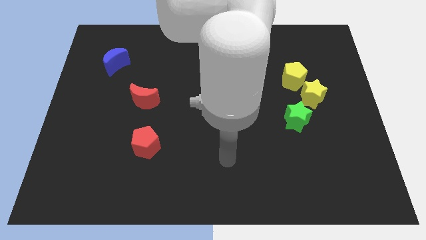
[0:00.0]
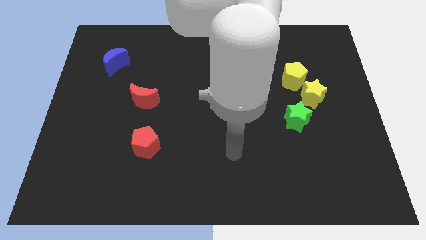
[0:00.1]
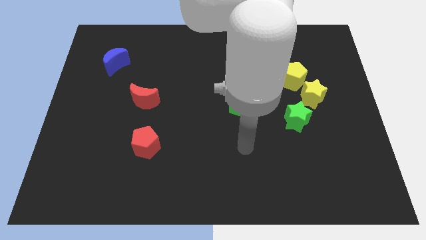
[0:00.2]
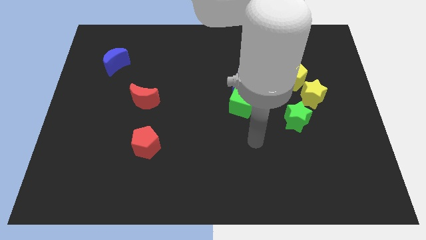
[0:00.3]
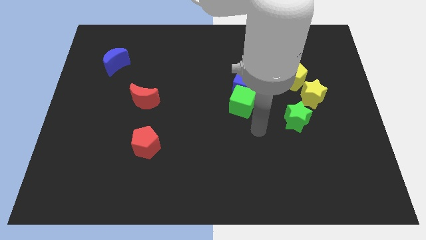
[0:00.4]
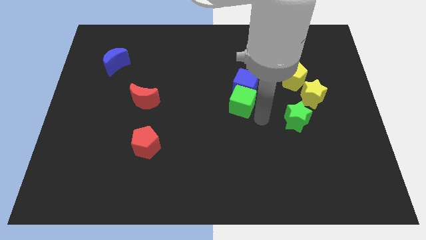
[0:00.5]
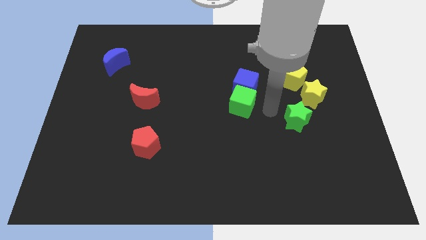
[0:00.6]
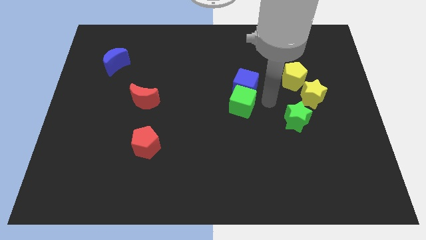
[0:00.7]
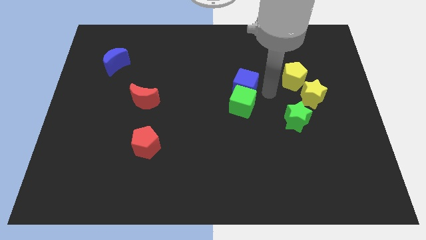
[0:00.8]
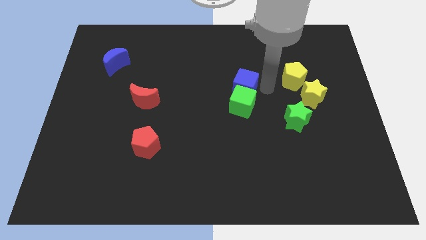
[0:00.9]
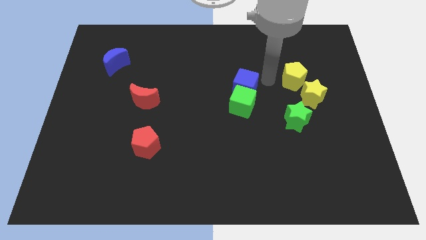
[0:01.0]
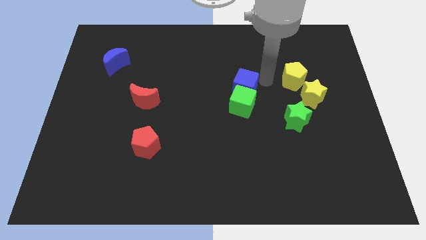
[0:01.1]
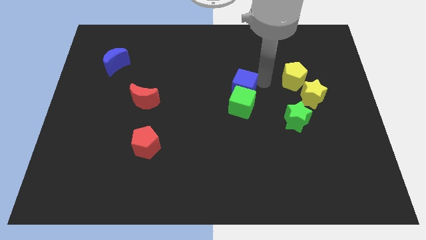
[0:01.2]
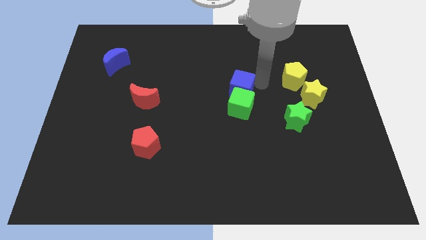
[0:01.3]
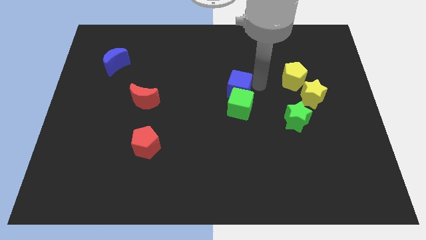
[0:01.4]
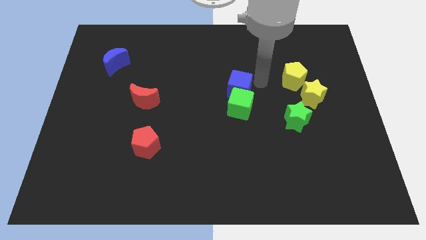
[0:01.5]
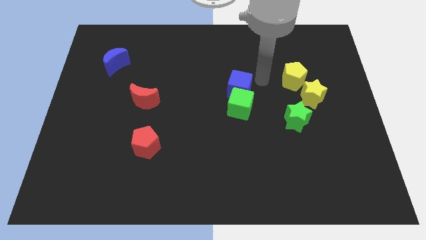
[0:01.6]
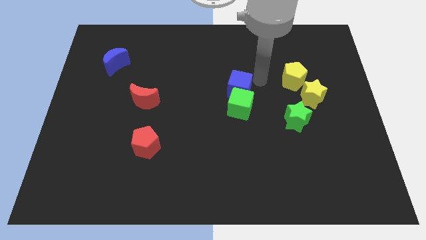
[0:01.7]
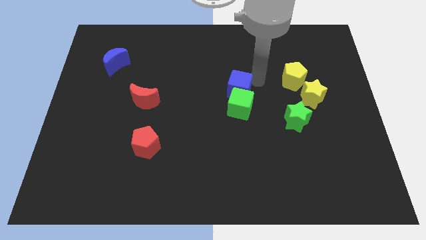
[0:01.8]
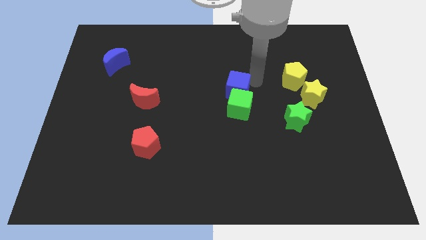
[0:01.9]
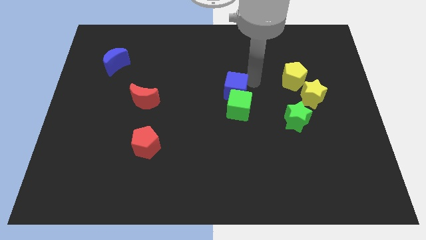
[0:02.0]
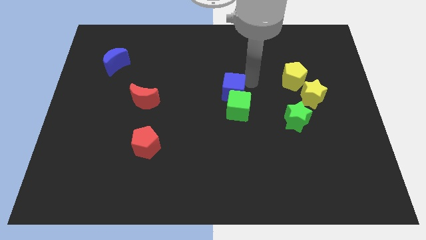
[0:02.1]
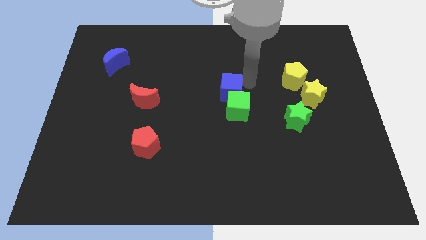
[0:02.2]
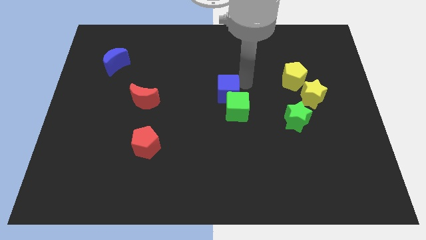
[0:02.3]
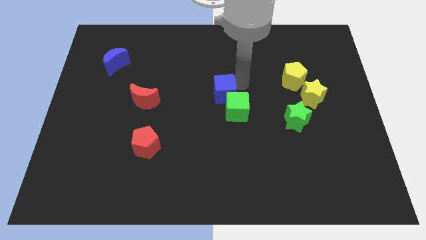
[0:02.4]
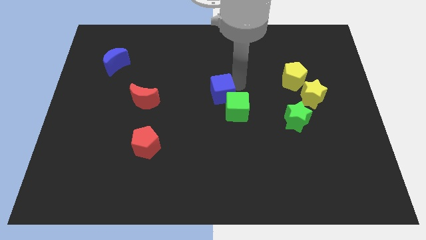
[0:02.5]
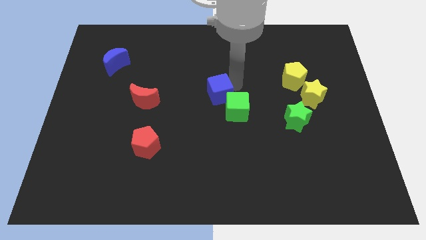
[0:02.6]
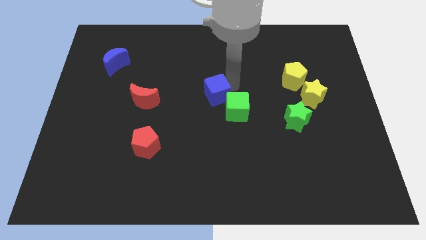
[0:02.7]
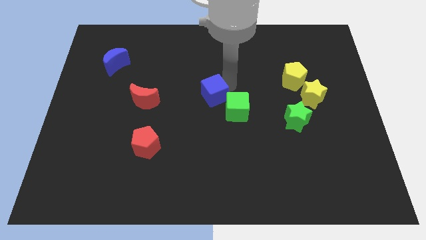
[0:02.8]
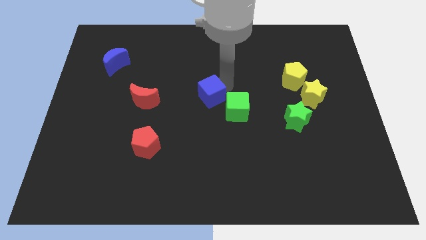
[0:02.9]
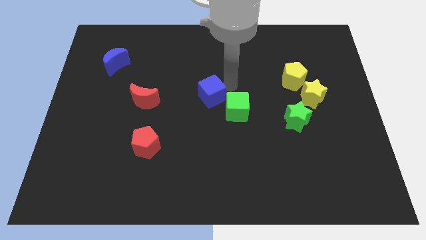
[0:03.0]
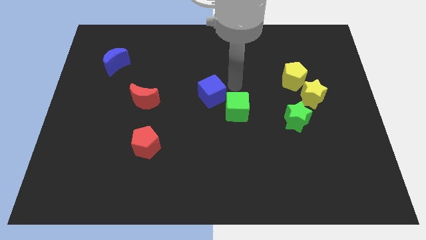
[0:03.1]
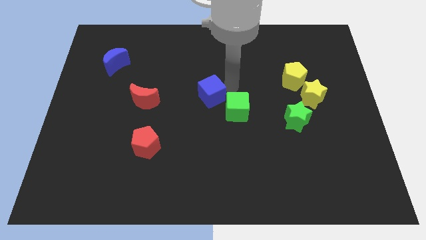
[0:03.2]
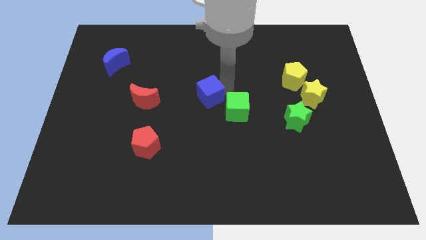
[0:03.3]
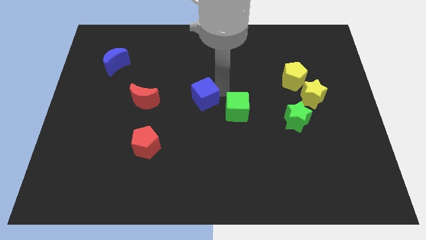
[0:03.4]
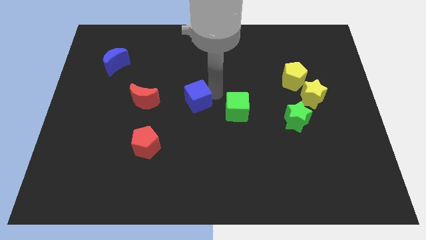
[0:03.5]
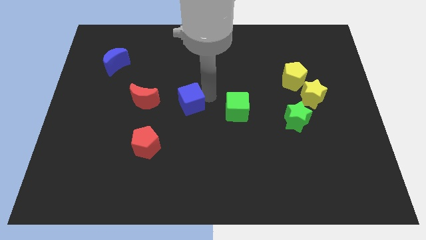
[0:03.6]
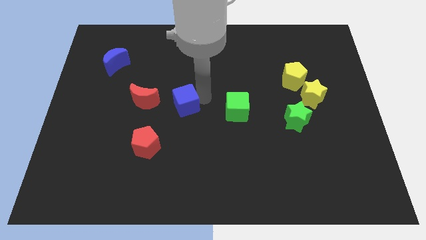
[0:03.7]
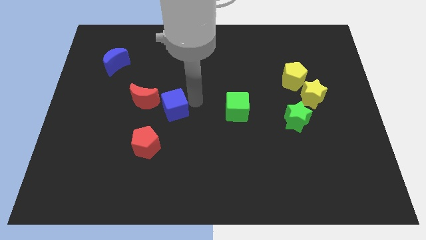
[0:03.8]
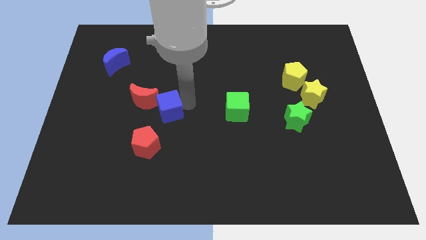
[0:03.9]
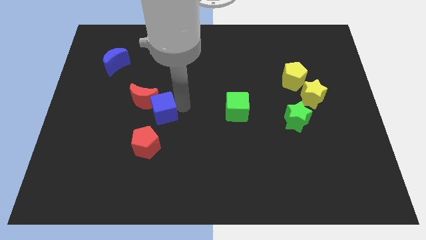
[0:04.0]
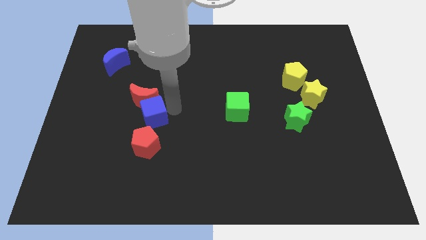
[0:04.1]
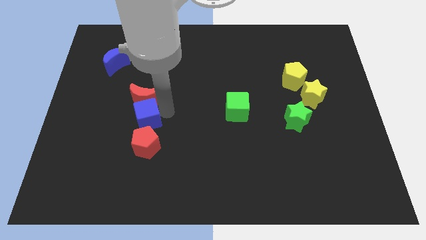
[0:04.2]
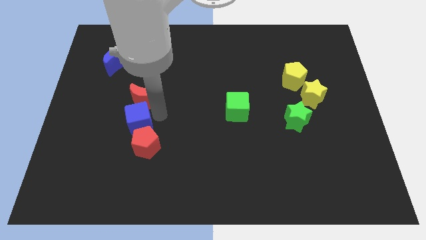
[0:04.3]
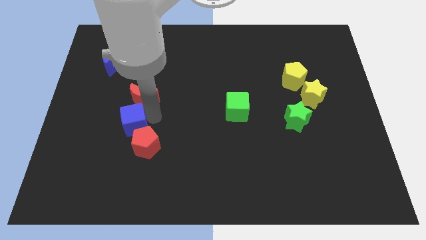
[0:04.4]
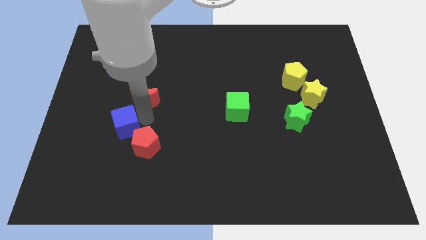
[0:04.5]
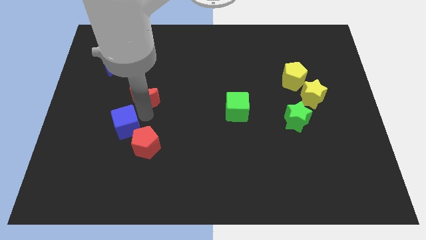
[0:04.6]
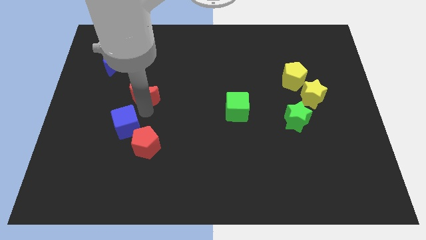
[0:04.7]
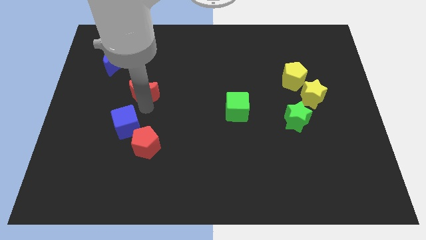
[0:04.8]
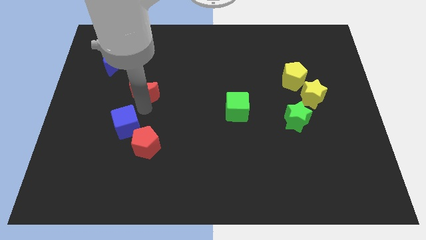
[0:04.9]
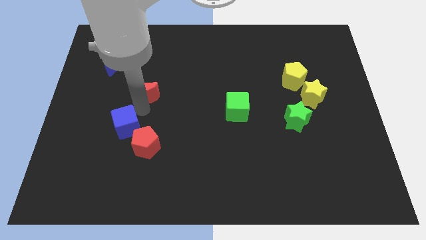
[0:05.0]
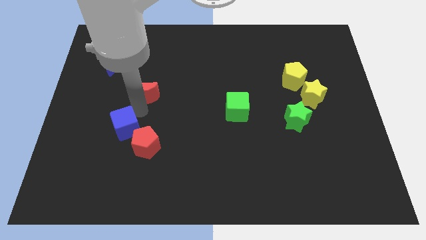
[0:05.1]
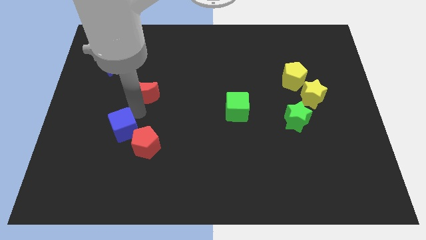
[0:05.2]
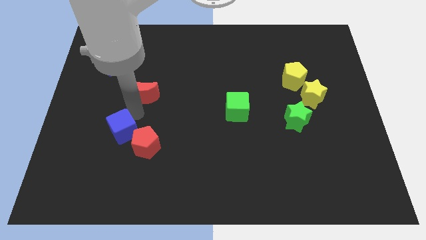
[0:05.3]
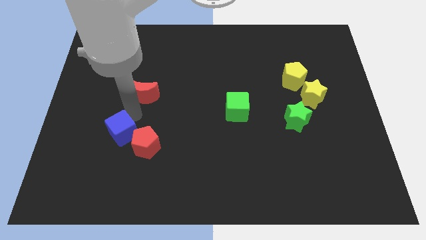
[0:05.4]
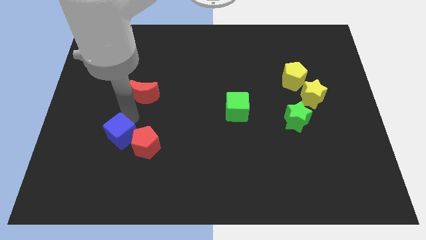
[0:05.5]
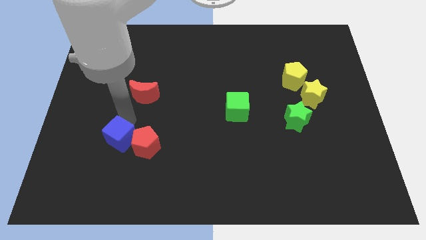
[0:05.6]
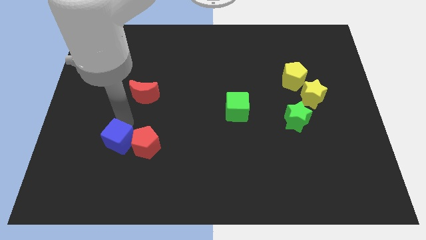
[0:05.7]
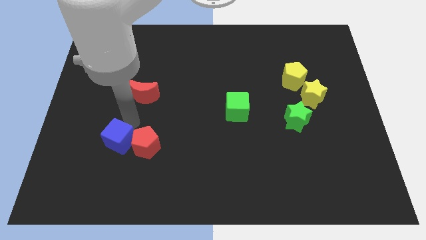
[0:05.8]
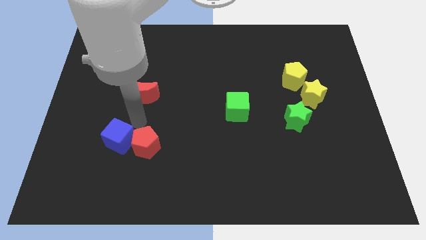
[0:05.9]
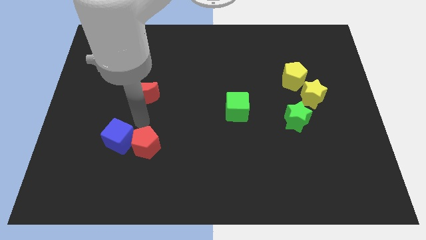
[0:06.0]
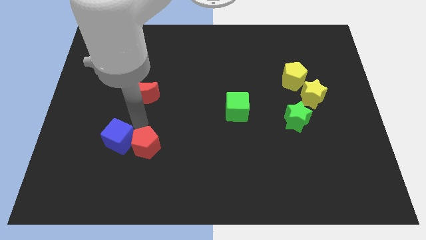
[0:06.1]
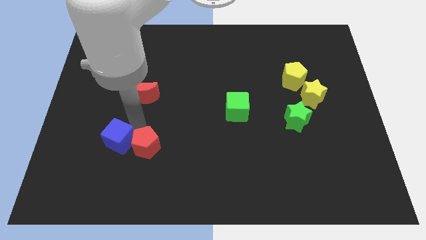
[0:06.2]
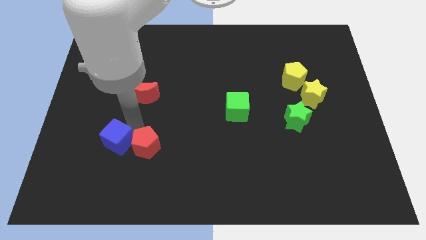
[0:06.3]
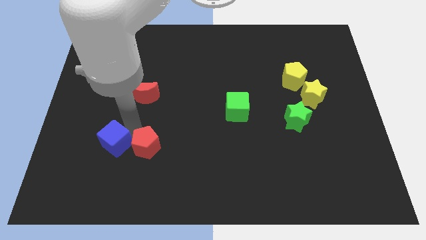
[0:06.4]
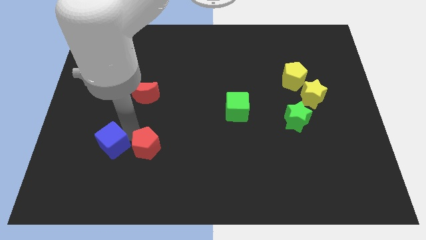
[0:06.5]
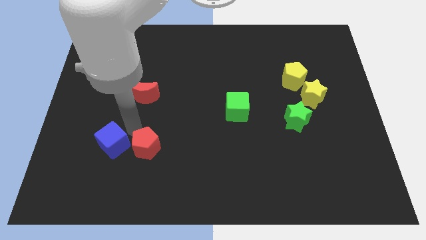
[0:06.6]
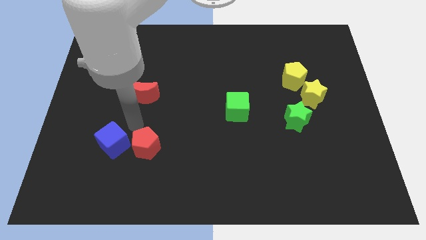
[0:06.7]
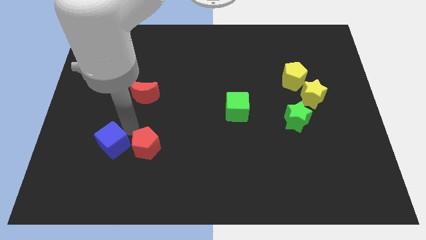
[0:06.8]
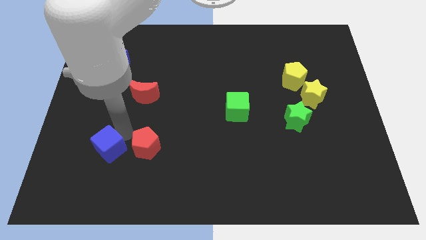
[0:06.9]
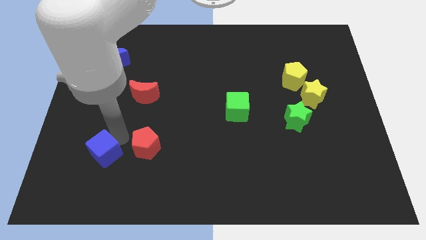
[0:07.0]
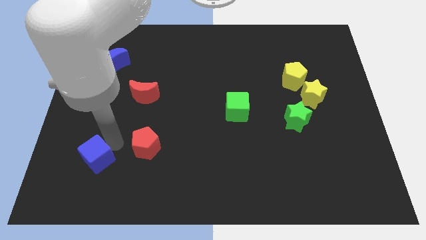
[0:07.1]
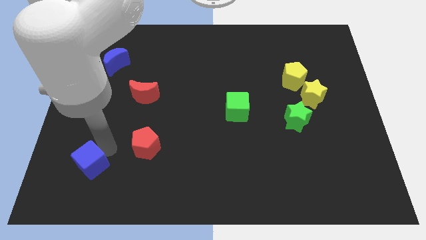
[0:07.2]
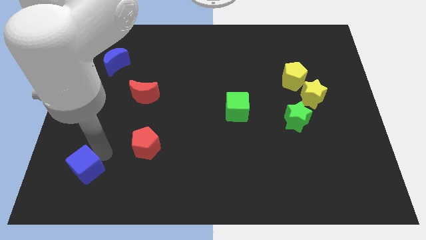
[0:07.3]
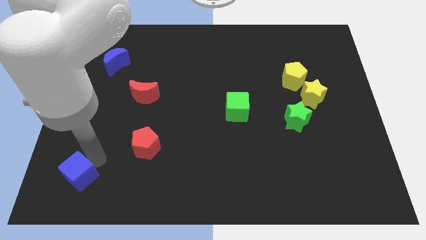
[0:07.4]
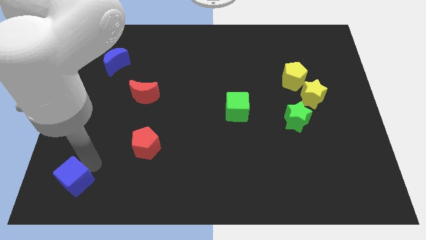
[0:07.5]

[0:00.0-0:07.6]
put the blue cube to the lower left corner
